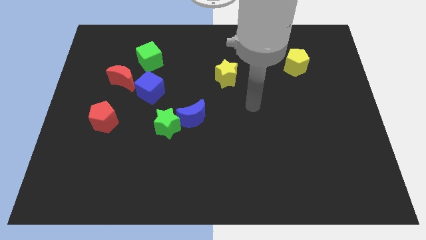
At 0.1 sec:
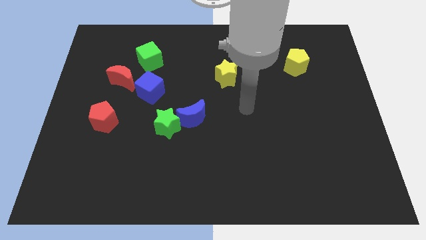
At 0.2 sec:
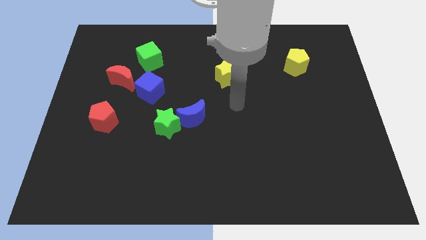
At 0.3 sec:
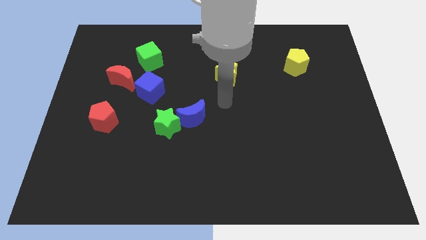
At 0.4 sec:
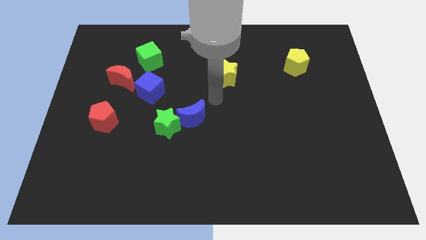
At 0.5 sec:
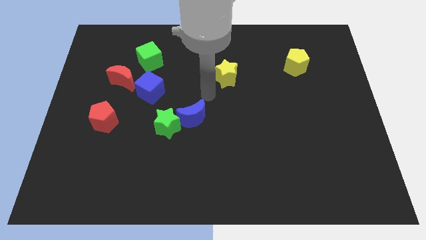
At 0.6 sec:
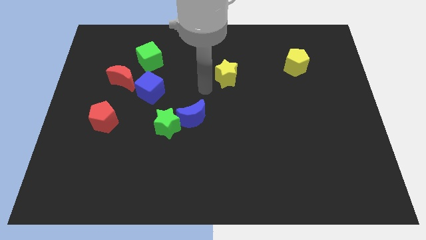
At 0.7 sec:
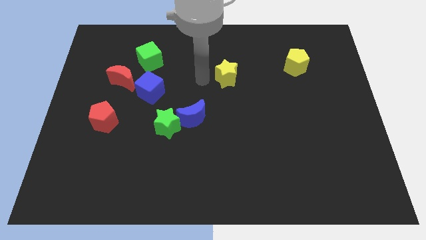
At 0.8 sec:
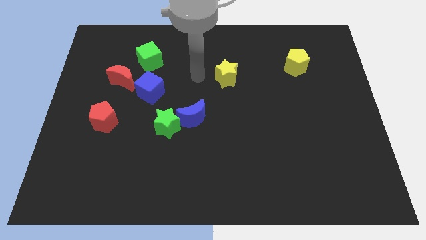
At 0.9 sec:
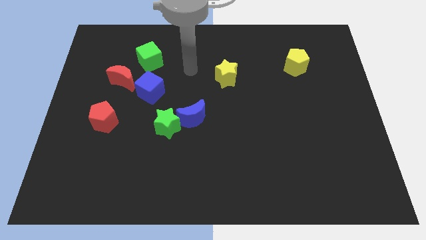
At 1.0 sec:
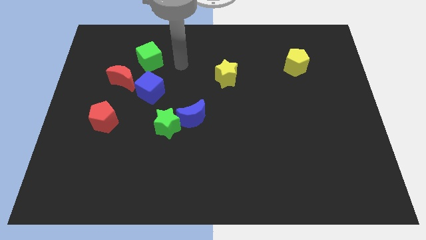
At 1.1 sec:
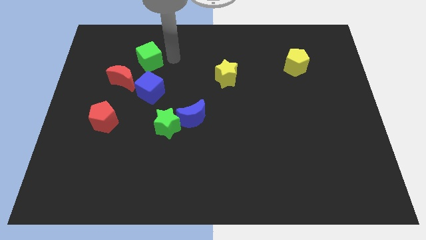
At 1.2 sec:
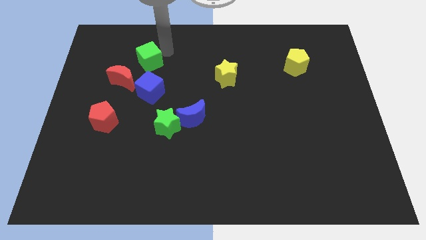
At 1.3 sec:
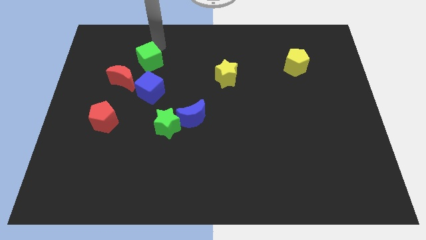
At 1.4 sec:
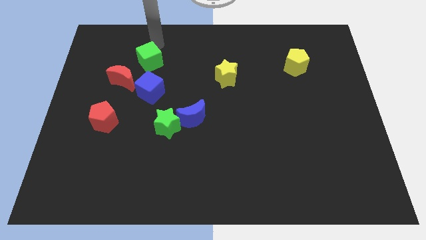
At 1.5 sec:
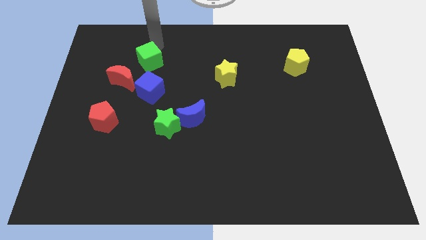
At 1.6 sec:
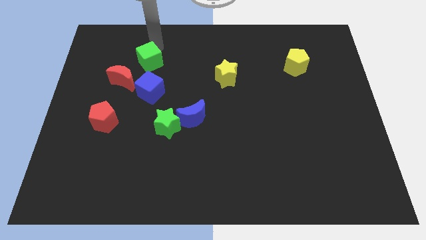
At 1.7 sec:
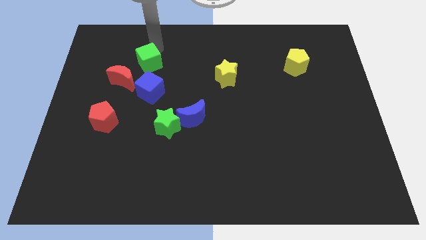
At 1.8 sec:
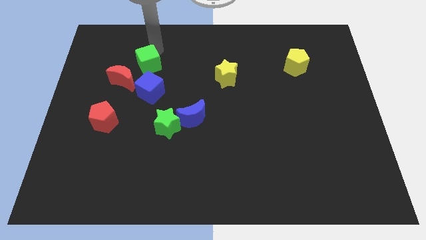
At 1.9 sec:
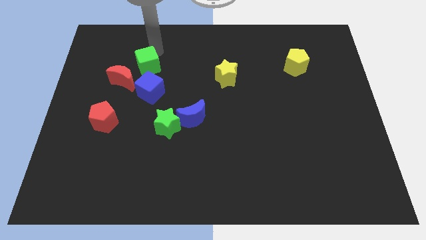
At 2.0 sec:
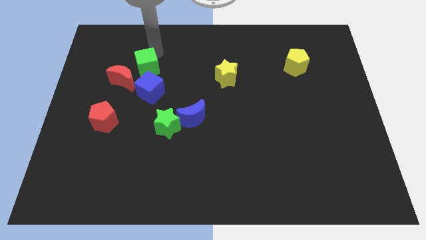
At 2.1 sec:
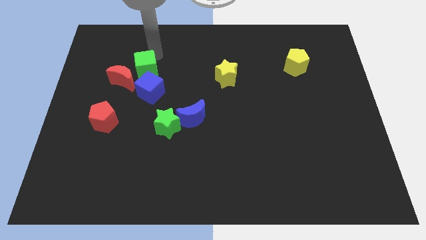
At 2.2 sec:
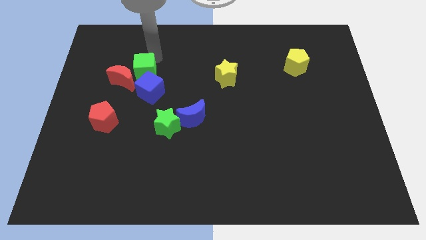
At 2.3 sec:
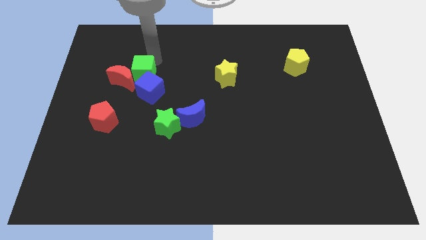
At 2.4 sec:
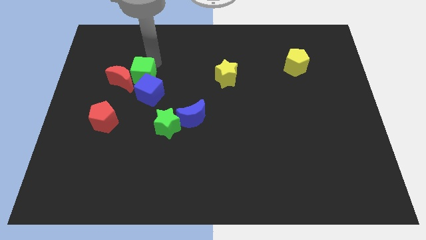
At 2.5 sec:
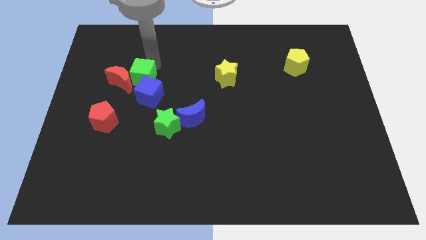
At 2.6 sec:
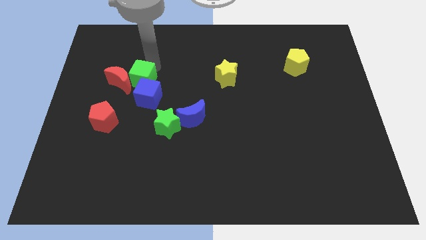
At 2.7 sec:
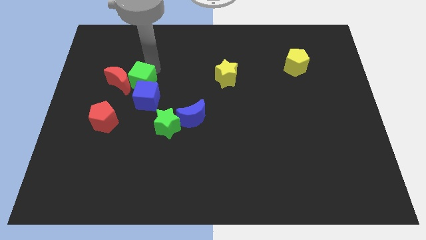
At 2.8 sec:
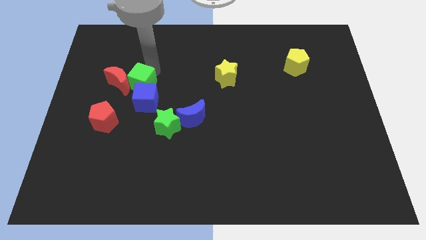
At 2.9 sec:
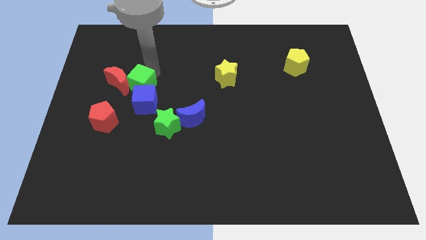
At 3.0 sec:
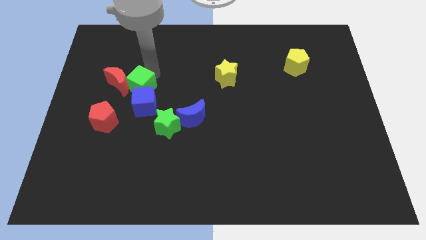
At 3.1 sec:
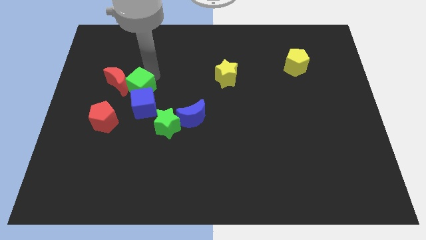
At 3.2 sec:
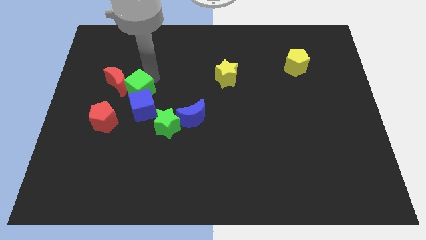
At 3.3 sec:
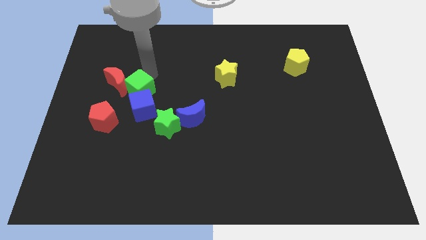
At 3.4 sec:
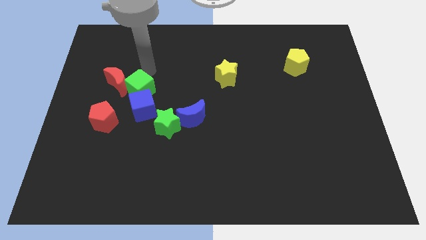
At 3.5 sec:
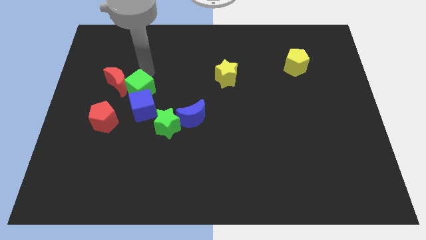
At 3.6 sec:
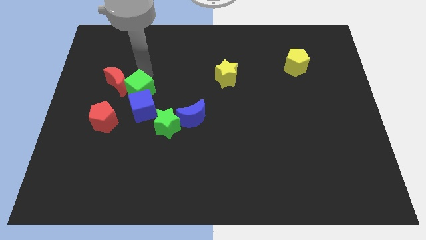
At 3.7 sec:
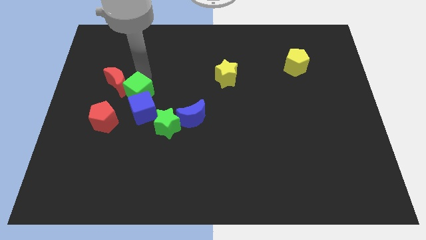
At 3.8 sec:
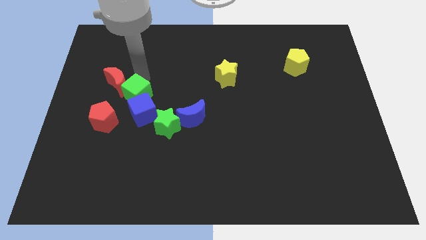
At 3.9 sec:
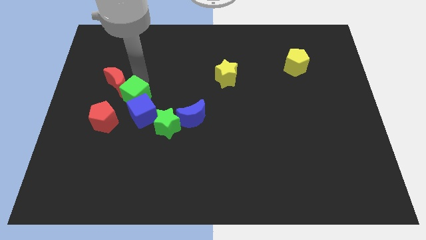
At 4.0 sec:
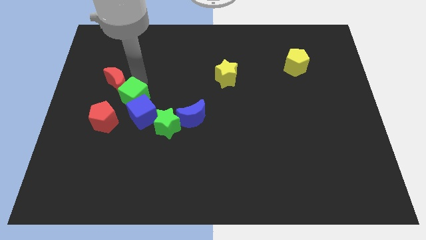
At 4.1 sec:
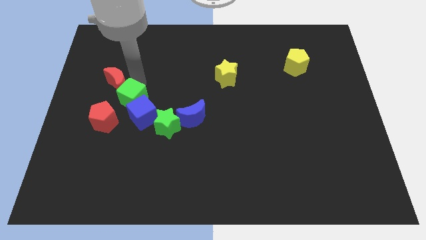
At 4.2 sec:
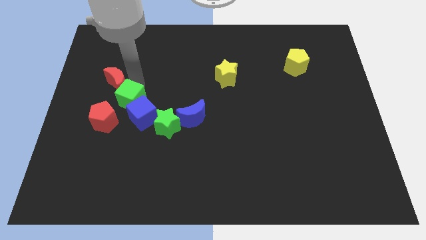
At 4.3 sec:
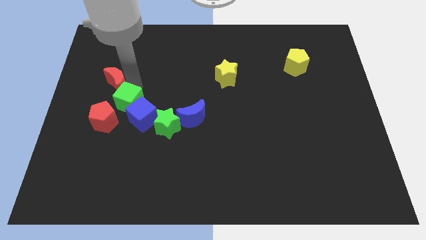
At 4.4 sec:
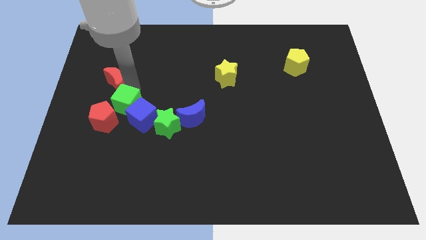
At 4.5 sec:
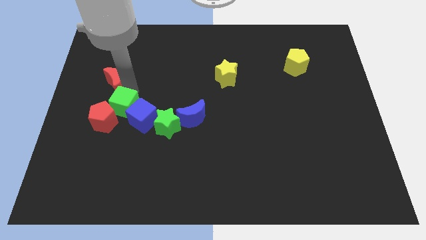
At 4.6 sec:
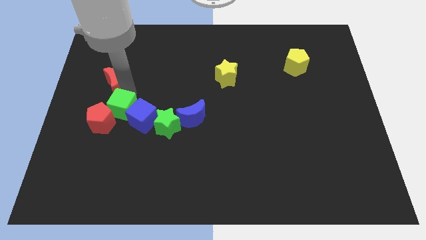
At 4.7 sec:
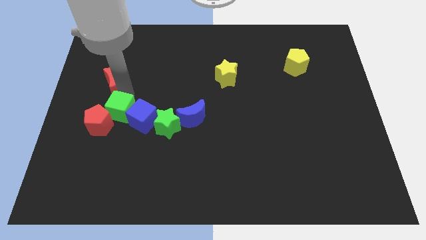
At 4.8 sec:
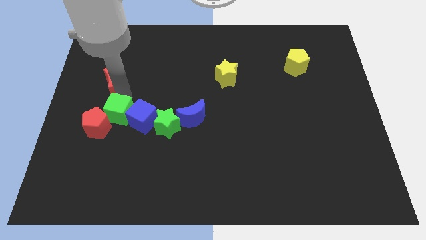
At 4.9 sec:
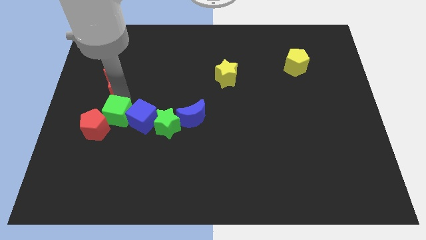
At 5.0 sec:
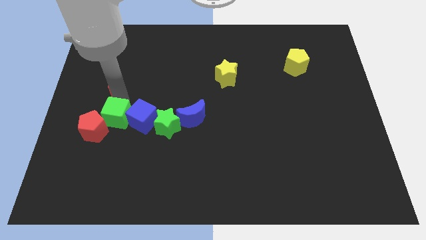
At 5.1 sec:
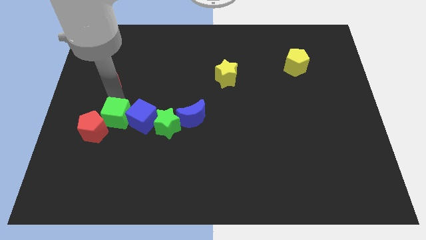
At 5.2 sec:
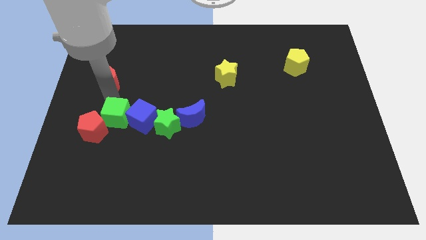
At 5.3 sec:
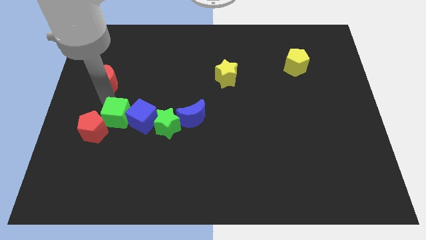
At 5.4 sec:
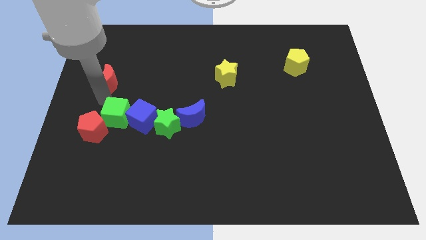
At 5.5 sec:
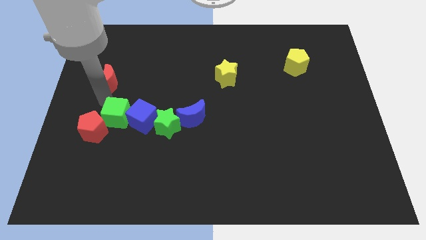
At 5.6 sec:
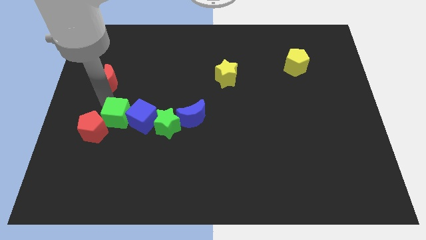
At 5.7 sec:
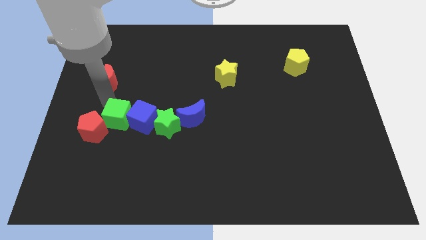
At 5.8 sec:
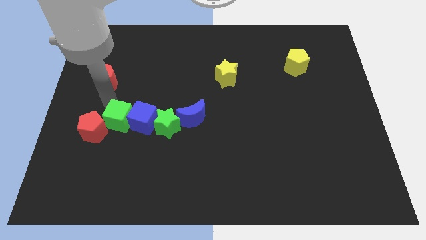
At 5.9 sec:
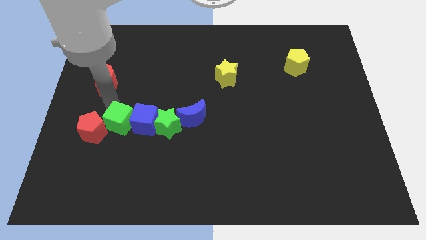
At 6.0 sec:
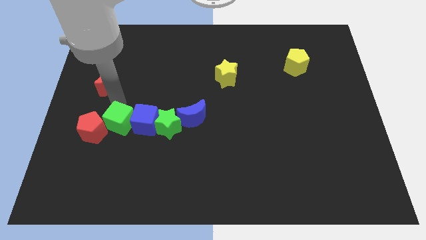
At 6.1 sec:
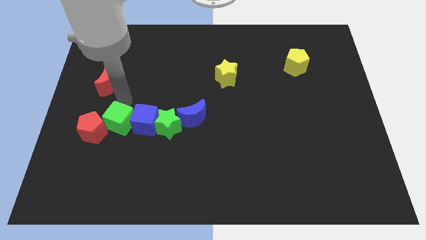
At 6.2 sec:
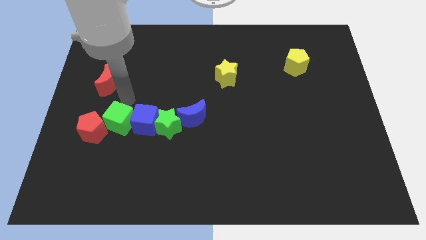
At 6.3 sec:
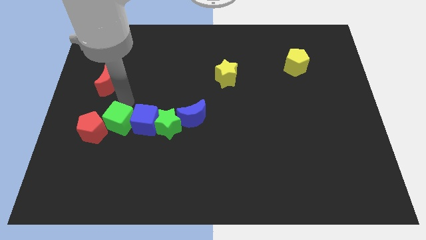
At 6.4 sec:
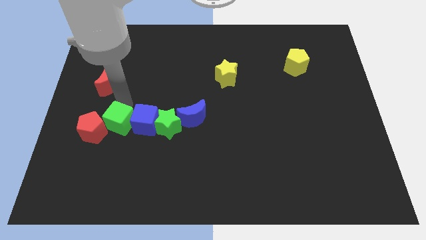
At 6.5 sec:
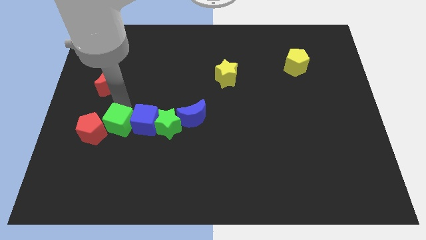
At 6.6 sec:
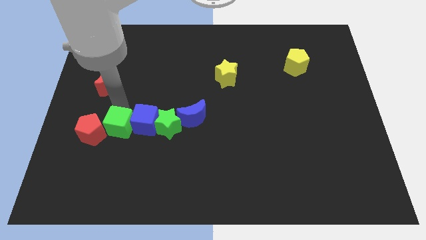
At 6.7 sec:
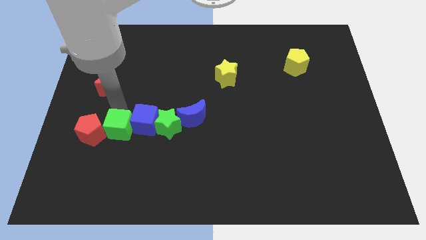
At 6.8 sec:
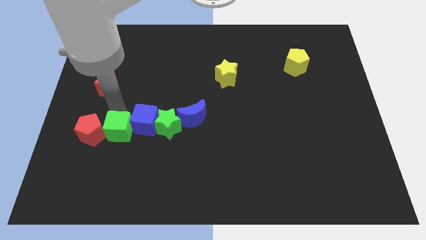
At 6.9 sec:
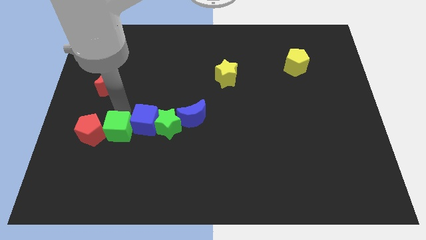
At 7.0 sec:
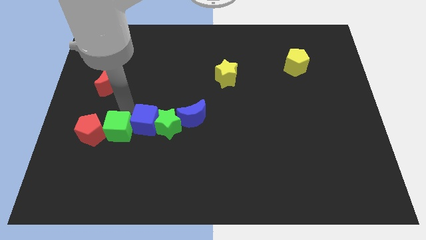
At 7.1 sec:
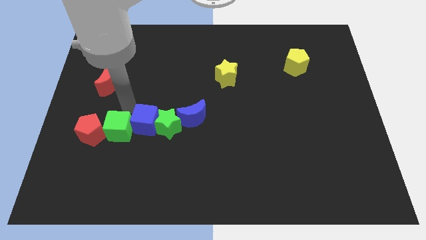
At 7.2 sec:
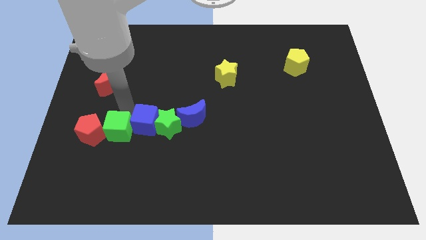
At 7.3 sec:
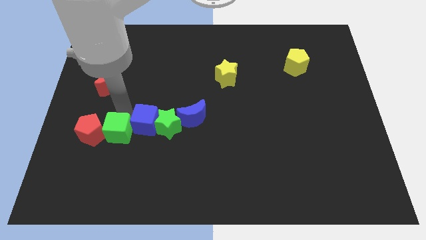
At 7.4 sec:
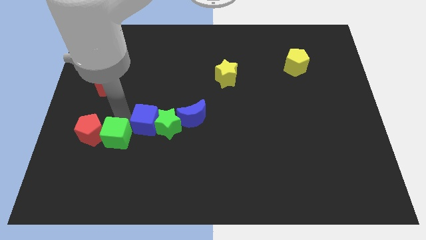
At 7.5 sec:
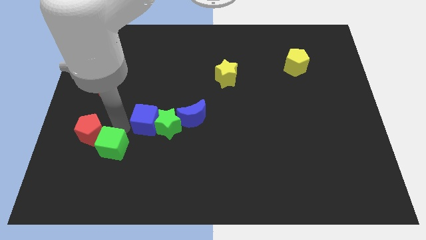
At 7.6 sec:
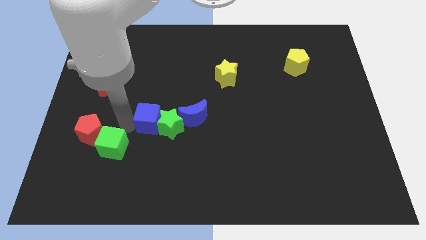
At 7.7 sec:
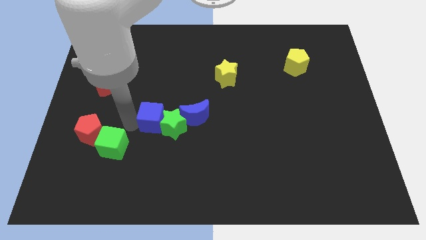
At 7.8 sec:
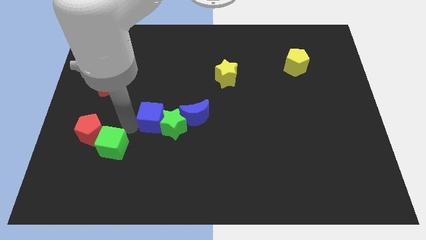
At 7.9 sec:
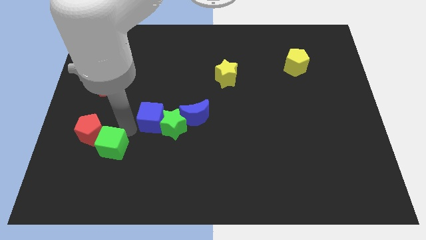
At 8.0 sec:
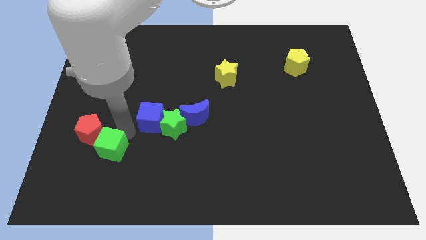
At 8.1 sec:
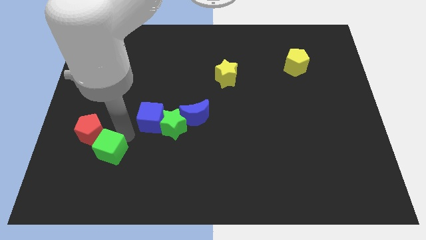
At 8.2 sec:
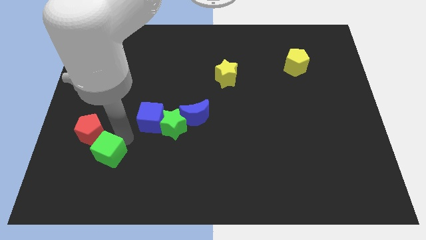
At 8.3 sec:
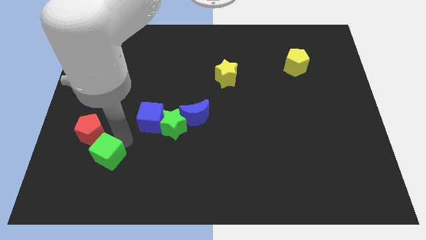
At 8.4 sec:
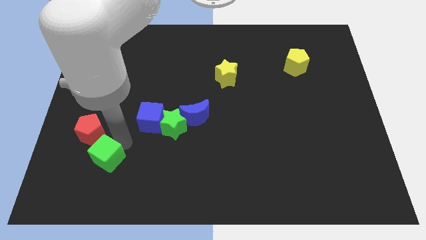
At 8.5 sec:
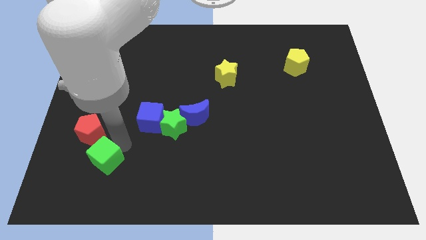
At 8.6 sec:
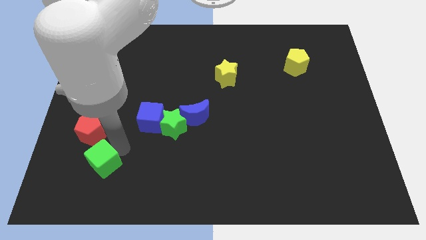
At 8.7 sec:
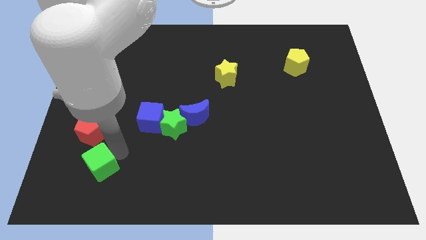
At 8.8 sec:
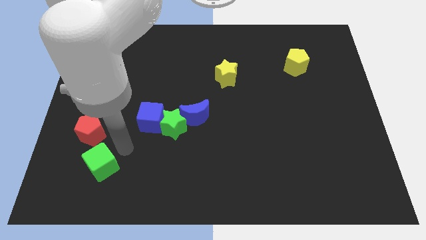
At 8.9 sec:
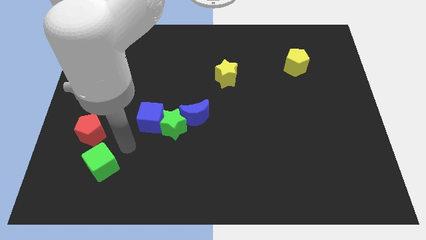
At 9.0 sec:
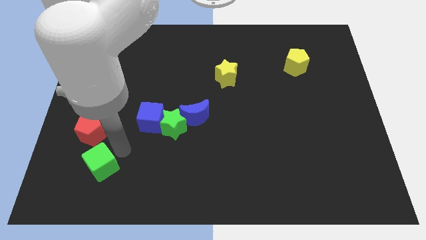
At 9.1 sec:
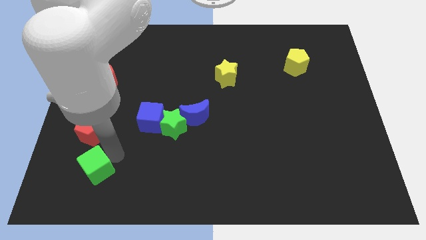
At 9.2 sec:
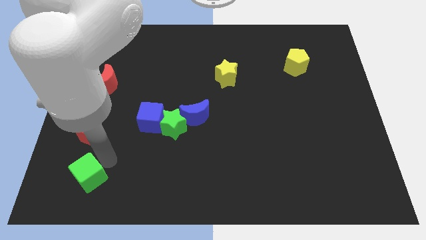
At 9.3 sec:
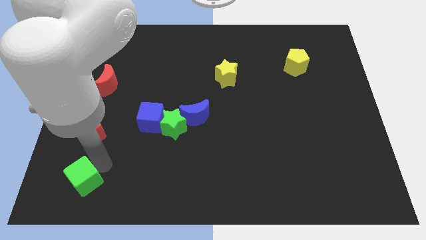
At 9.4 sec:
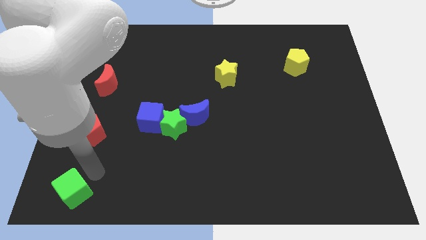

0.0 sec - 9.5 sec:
move the green cube to the bottom left of the board
